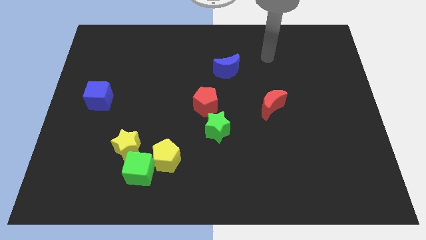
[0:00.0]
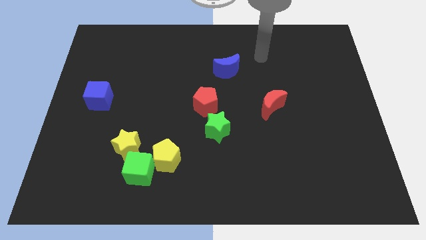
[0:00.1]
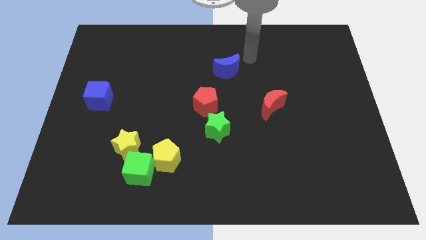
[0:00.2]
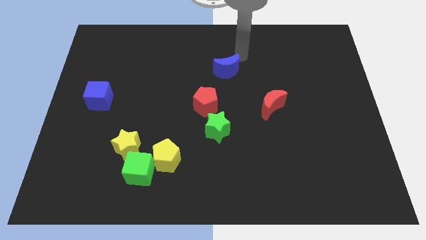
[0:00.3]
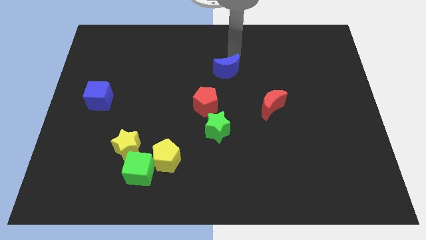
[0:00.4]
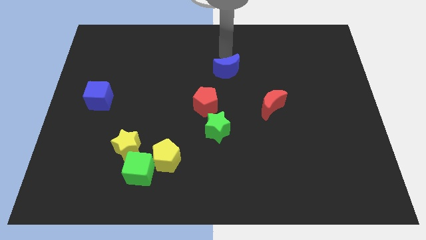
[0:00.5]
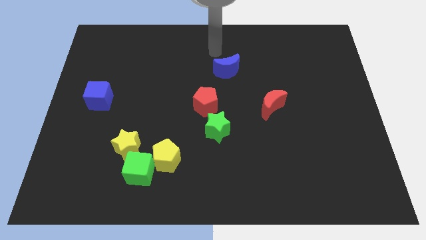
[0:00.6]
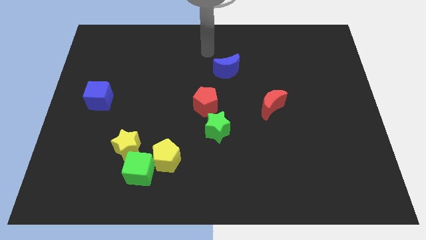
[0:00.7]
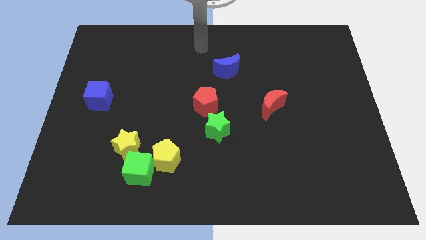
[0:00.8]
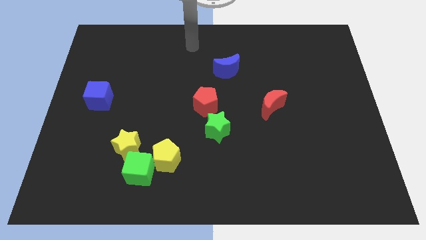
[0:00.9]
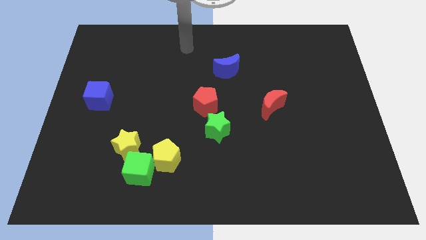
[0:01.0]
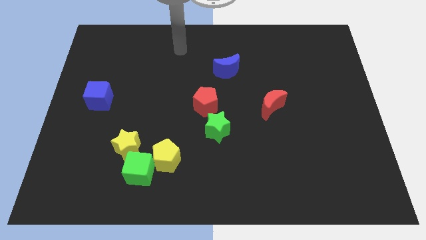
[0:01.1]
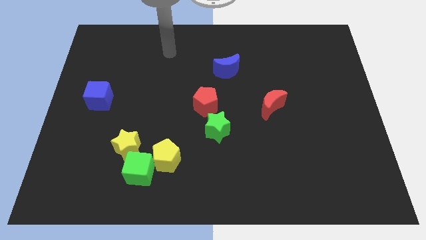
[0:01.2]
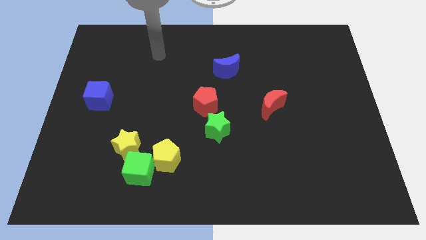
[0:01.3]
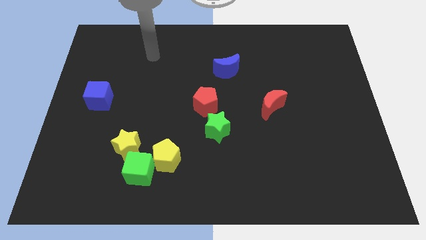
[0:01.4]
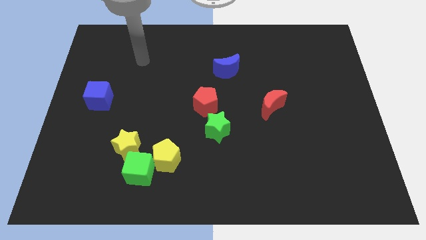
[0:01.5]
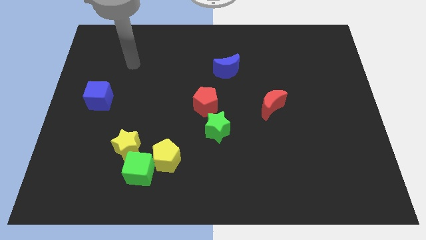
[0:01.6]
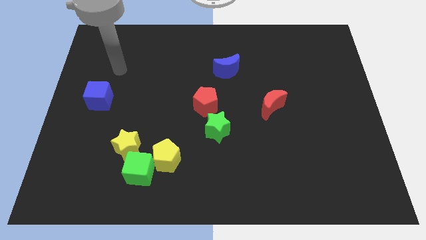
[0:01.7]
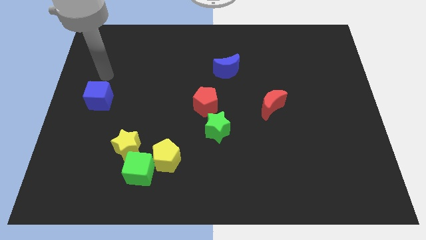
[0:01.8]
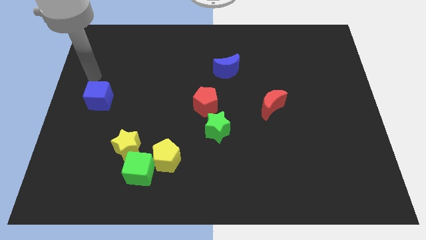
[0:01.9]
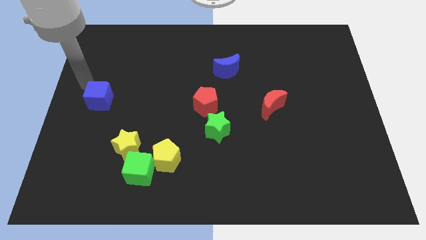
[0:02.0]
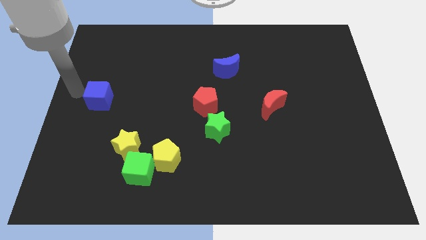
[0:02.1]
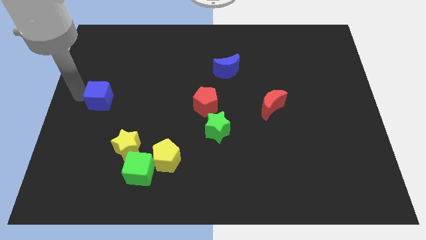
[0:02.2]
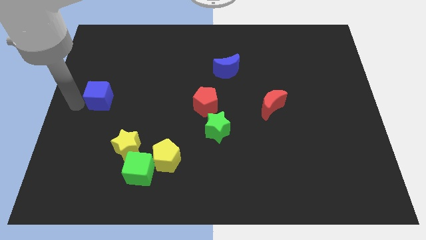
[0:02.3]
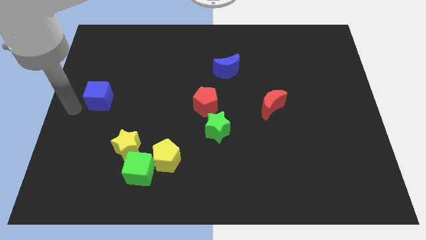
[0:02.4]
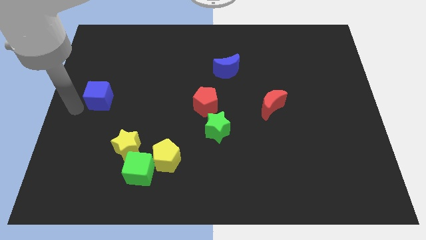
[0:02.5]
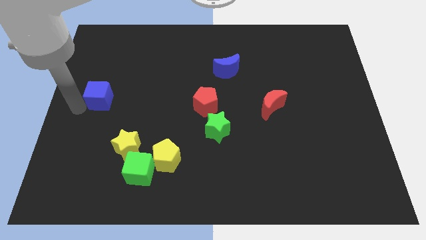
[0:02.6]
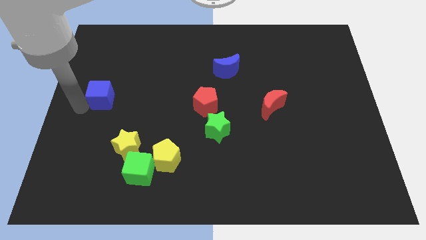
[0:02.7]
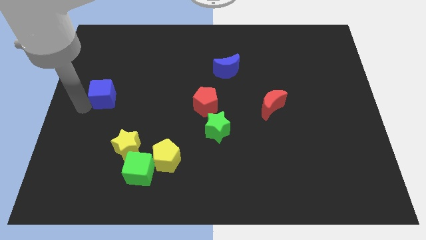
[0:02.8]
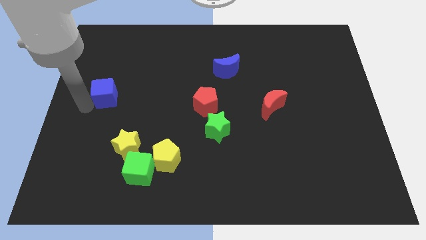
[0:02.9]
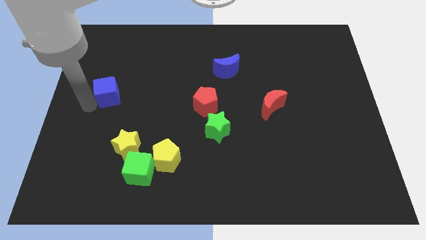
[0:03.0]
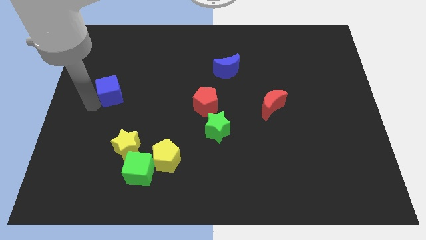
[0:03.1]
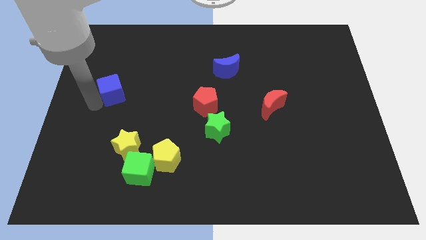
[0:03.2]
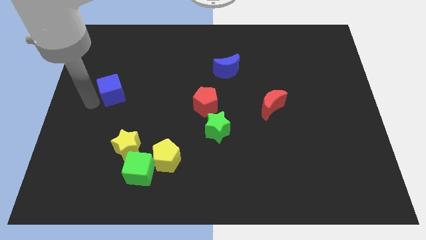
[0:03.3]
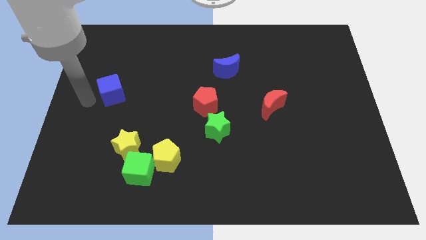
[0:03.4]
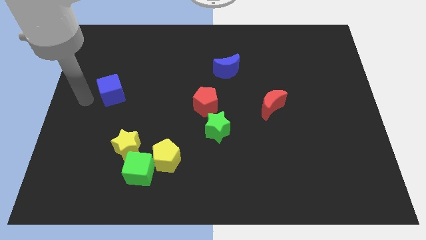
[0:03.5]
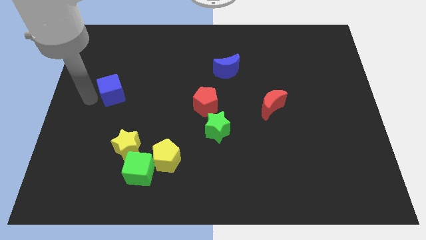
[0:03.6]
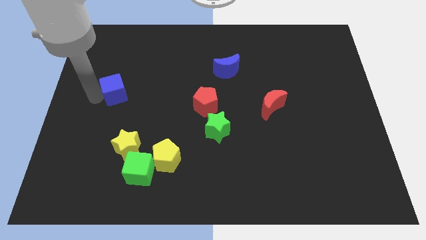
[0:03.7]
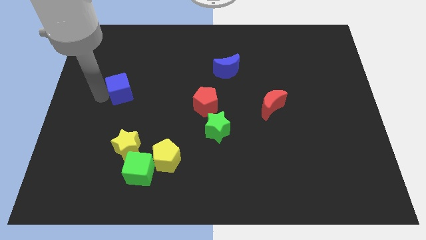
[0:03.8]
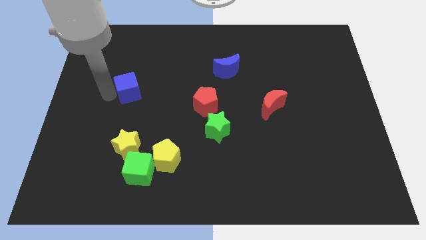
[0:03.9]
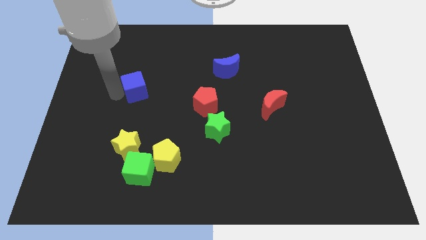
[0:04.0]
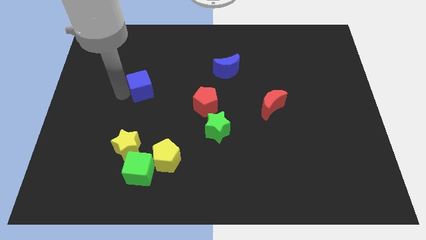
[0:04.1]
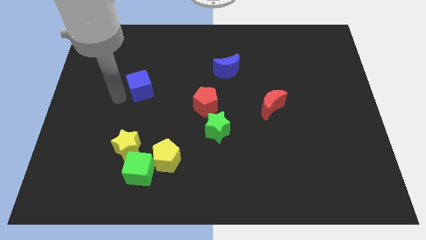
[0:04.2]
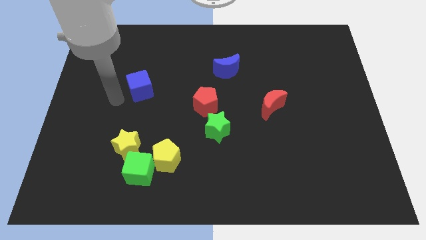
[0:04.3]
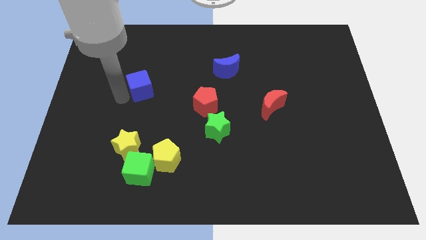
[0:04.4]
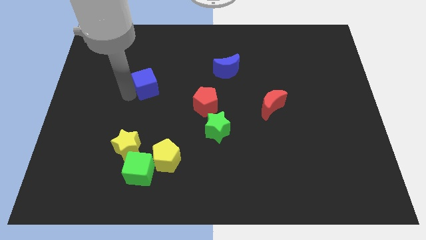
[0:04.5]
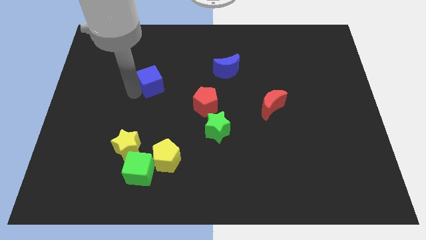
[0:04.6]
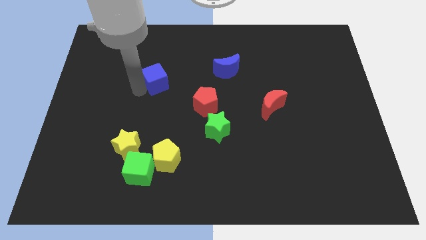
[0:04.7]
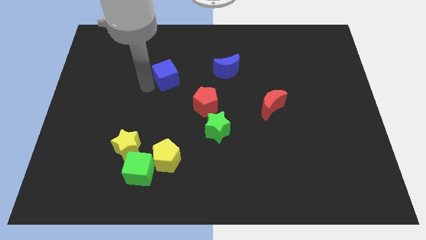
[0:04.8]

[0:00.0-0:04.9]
push the blue cube to the left side of the blue moon

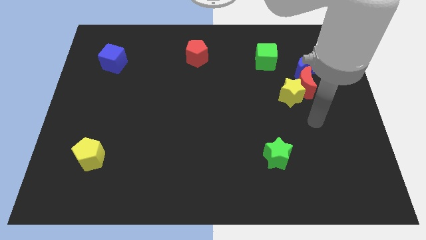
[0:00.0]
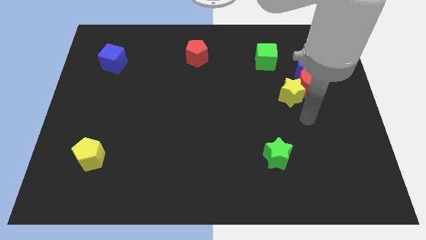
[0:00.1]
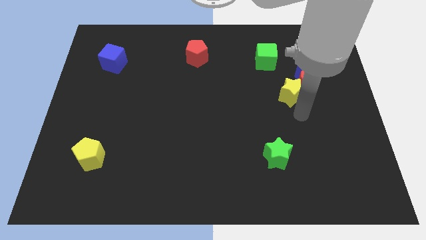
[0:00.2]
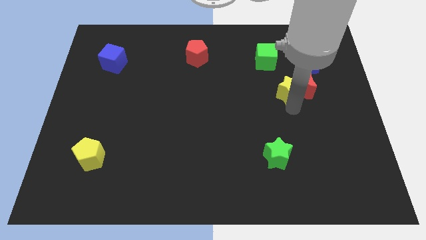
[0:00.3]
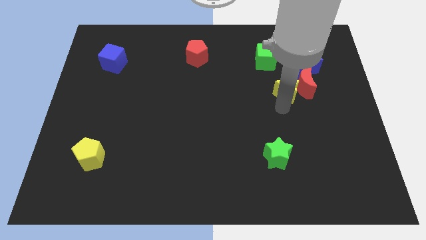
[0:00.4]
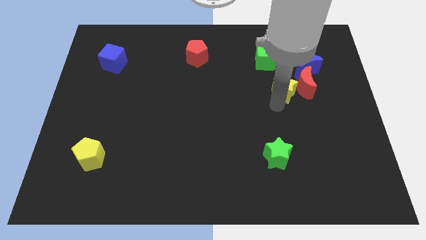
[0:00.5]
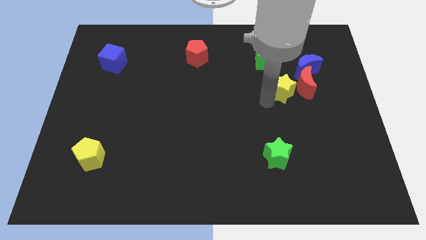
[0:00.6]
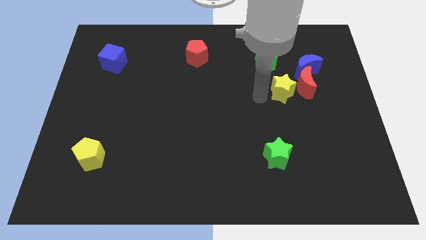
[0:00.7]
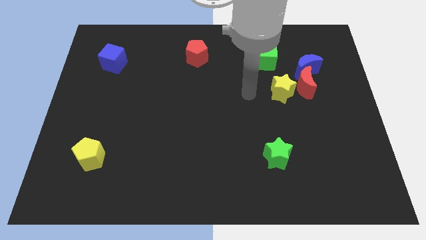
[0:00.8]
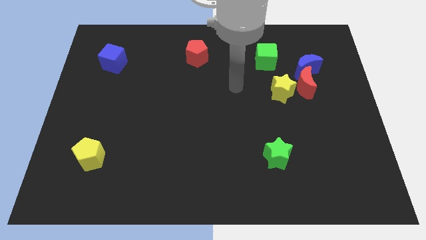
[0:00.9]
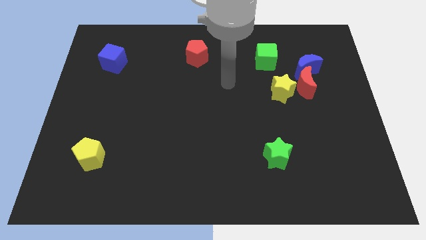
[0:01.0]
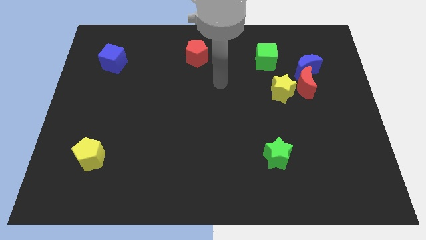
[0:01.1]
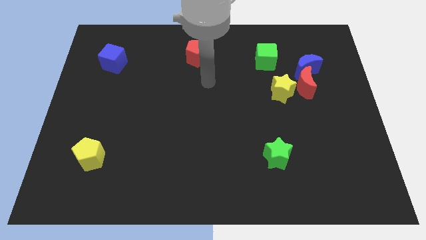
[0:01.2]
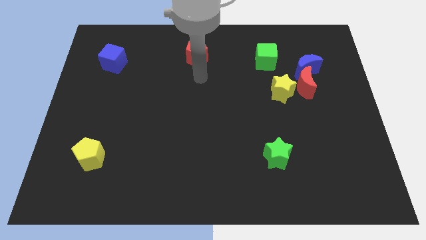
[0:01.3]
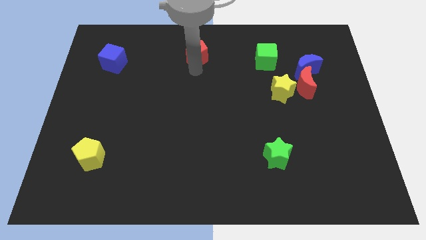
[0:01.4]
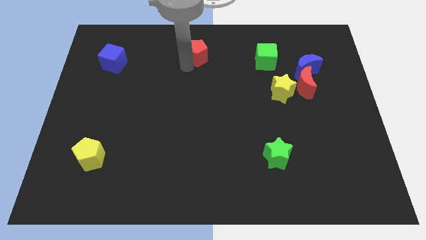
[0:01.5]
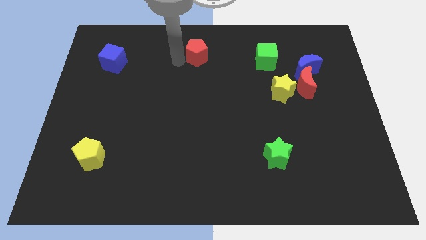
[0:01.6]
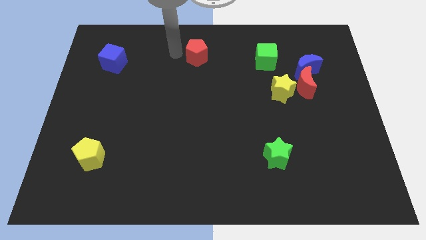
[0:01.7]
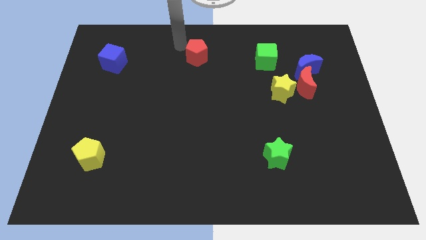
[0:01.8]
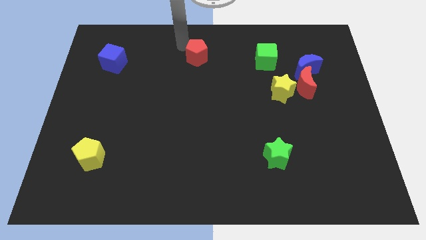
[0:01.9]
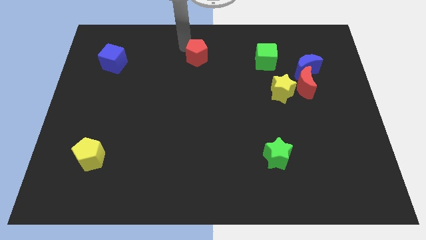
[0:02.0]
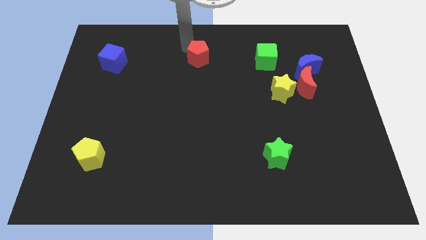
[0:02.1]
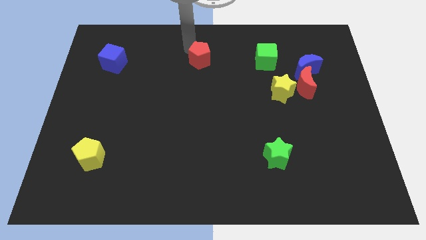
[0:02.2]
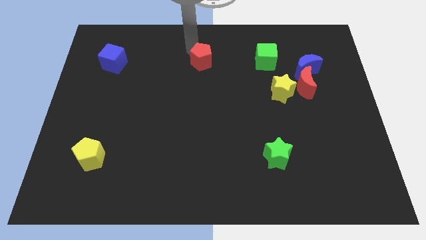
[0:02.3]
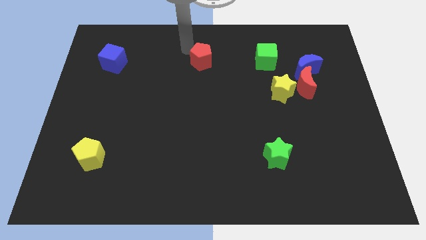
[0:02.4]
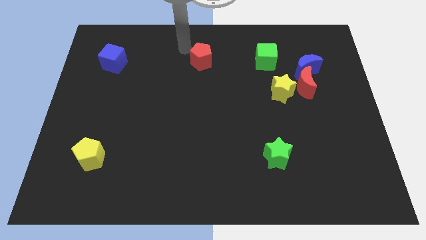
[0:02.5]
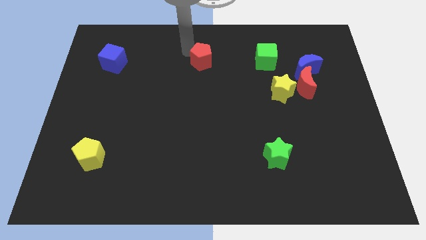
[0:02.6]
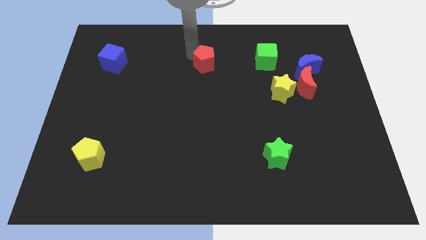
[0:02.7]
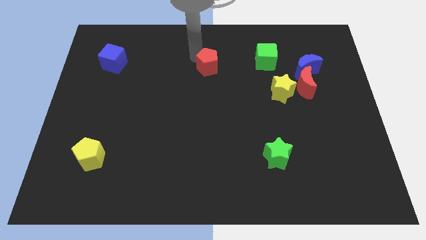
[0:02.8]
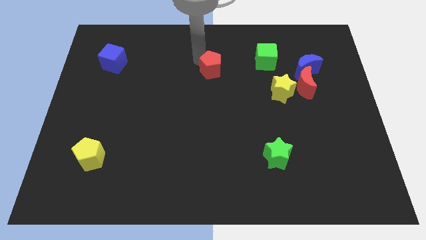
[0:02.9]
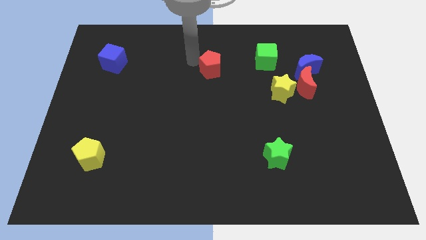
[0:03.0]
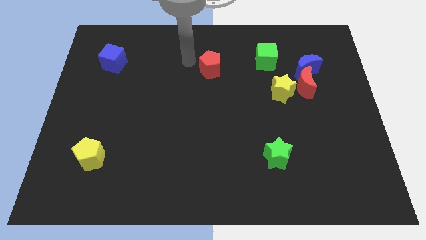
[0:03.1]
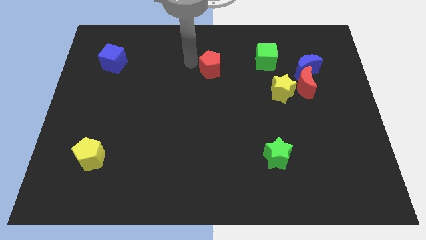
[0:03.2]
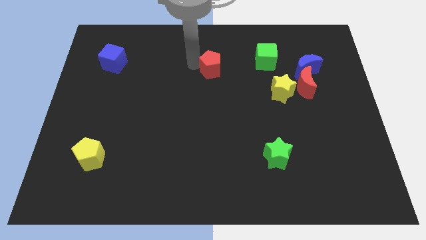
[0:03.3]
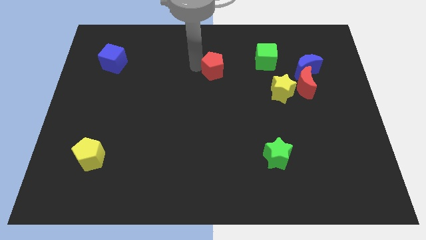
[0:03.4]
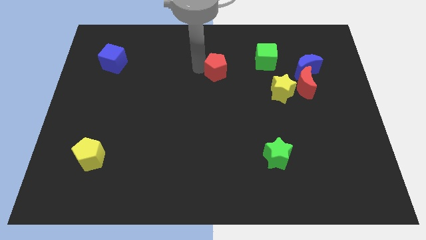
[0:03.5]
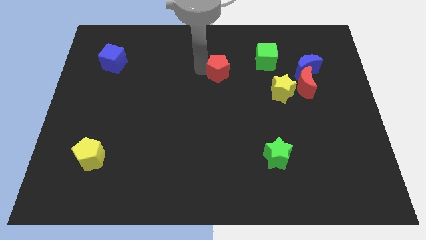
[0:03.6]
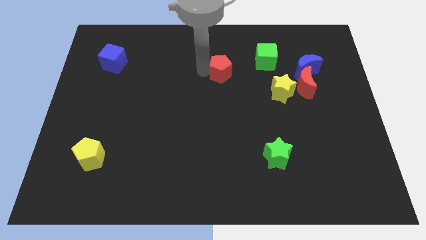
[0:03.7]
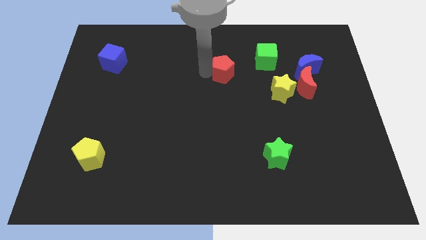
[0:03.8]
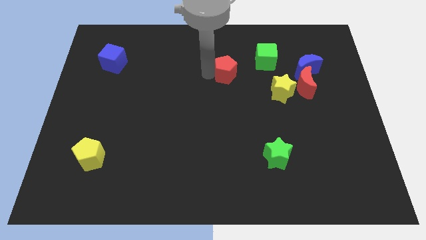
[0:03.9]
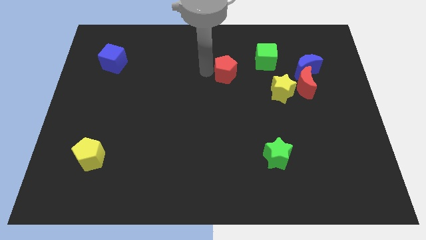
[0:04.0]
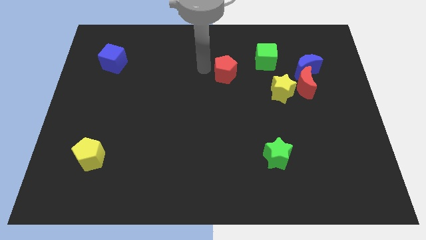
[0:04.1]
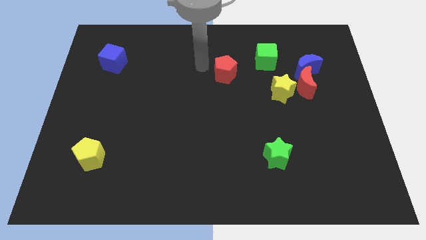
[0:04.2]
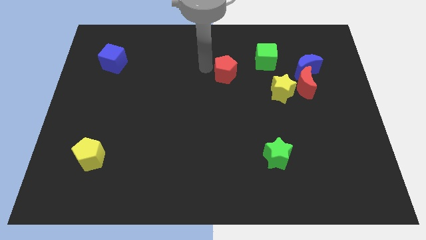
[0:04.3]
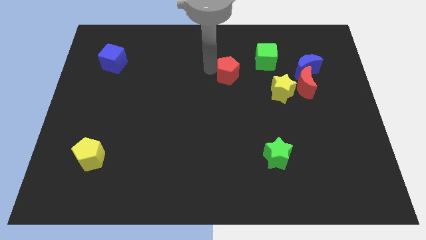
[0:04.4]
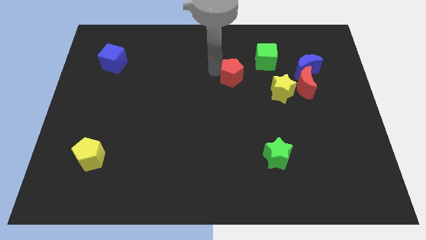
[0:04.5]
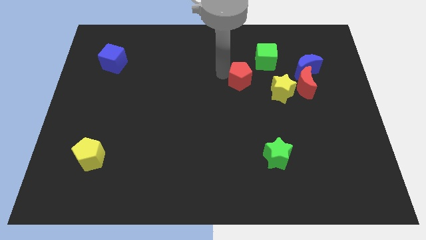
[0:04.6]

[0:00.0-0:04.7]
slide the red pentagon to the left side of the red moon
